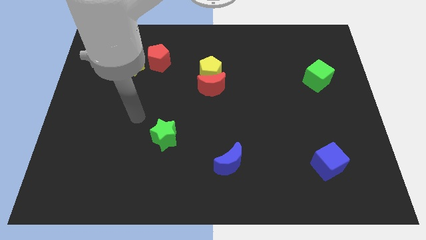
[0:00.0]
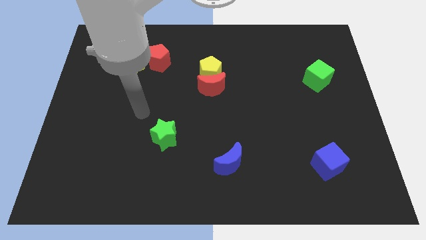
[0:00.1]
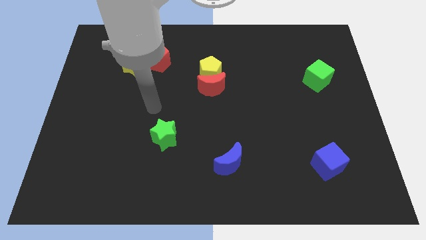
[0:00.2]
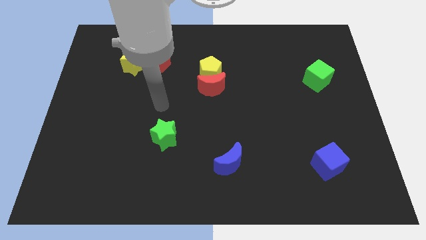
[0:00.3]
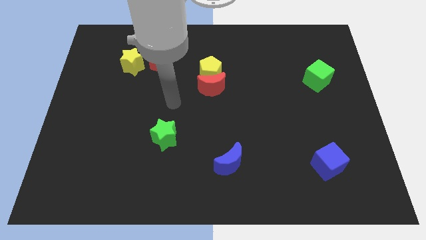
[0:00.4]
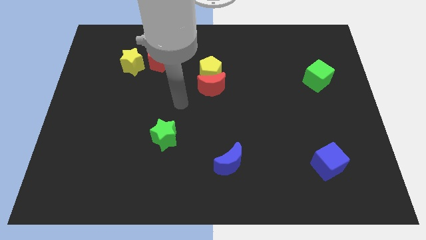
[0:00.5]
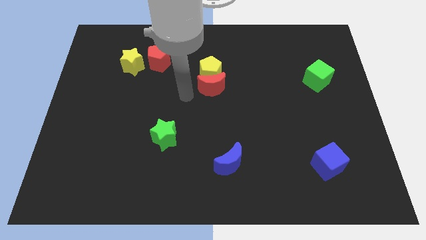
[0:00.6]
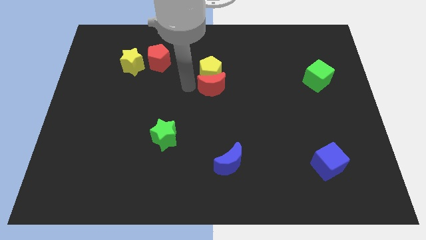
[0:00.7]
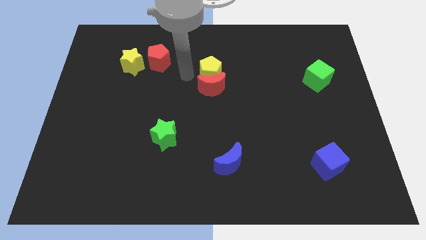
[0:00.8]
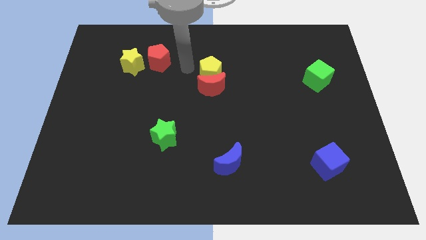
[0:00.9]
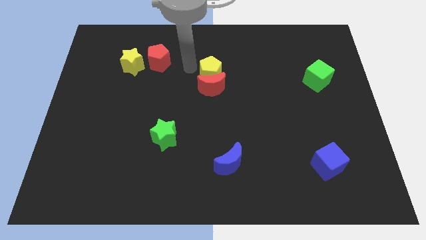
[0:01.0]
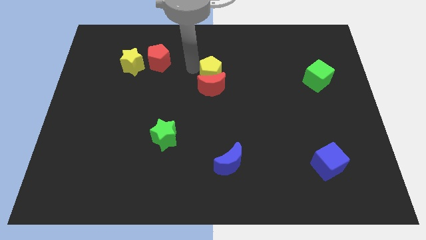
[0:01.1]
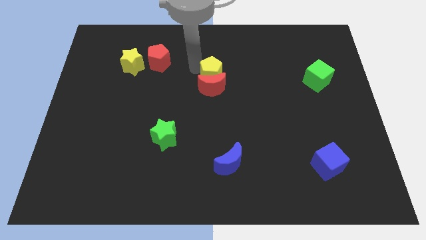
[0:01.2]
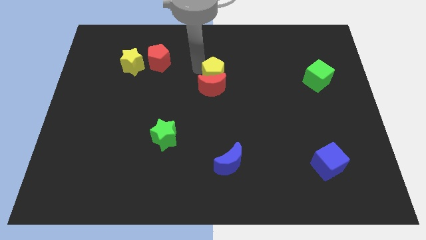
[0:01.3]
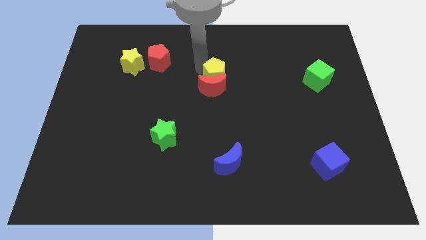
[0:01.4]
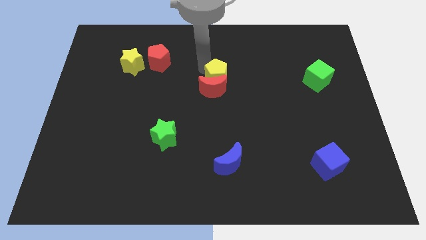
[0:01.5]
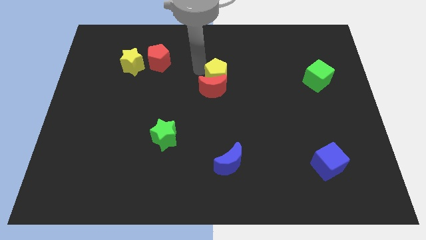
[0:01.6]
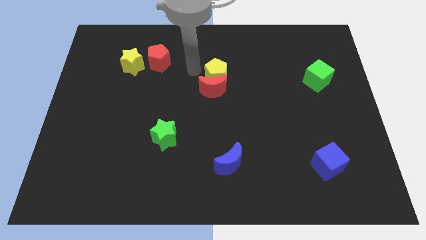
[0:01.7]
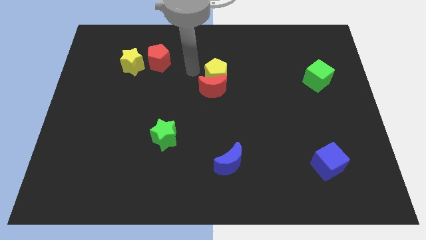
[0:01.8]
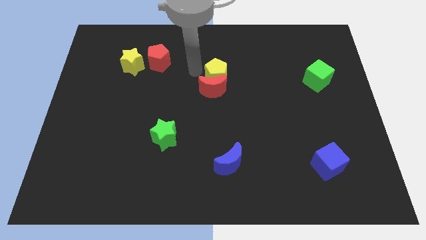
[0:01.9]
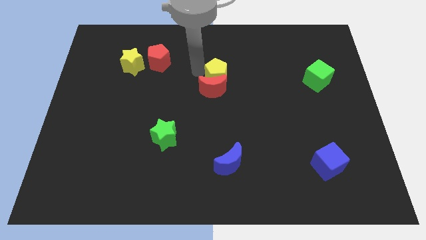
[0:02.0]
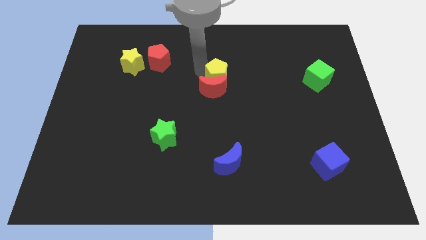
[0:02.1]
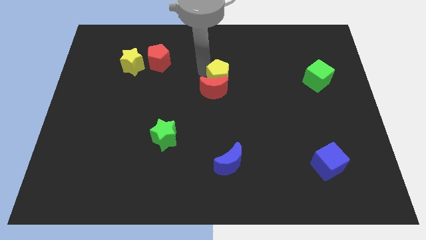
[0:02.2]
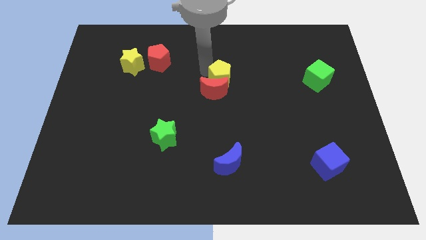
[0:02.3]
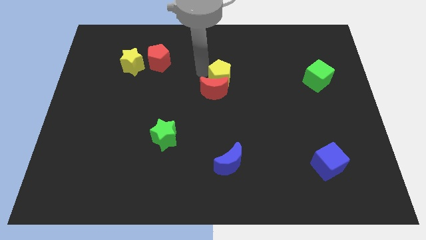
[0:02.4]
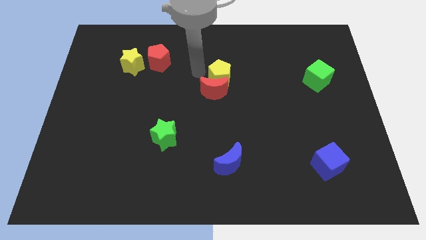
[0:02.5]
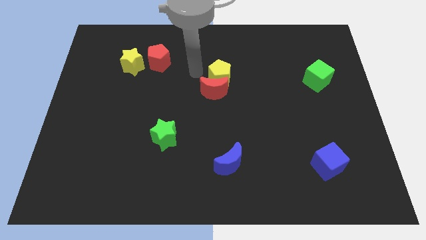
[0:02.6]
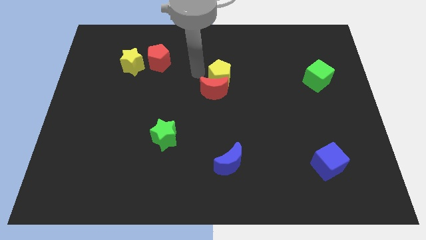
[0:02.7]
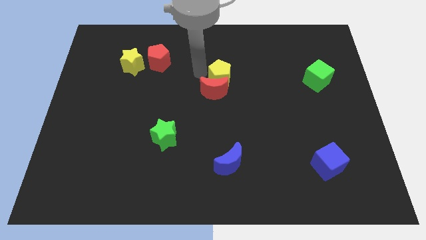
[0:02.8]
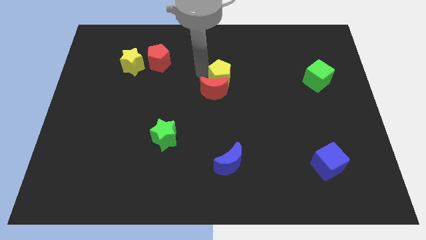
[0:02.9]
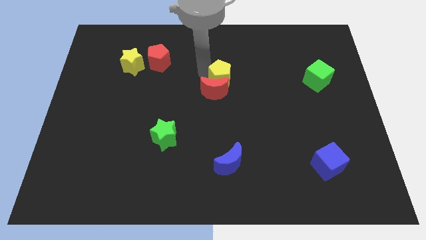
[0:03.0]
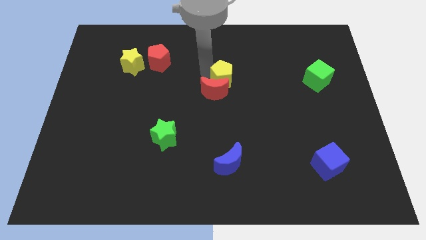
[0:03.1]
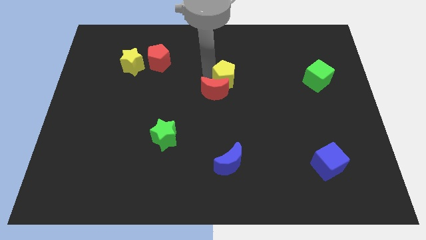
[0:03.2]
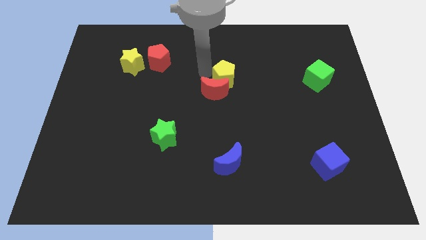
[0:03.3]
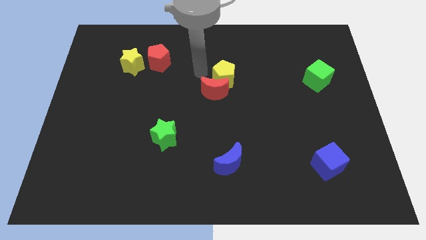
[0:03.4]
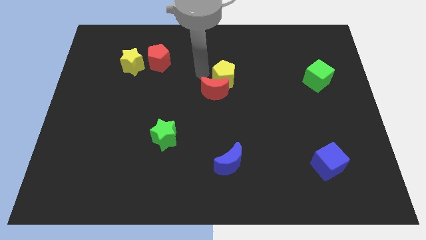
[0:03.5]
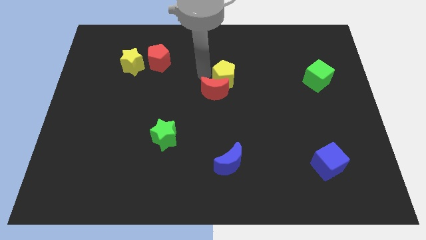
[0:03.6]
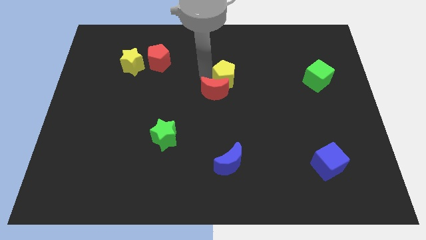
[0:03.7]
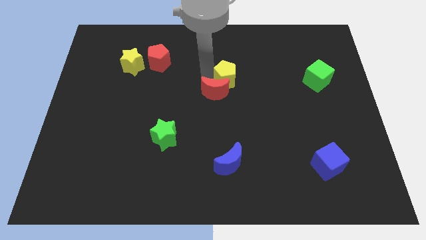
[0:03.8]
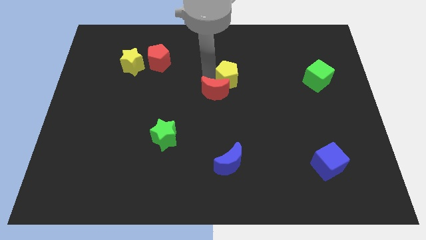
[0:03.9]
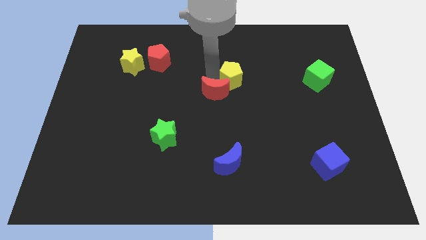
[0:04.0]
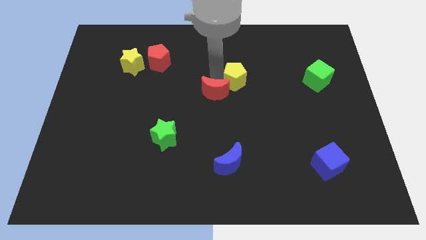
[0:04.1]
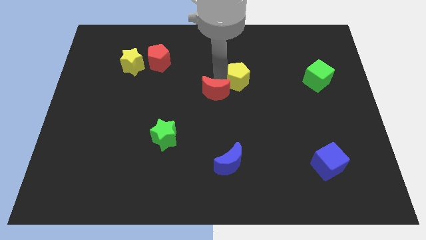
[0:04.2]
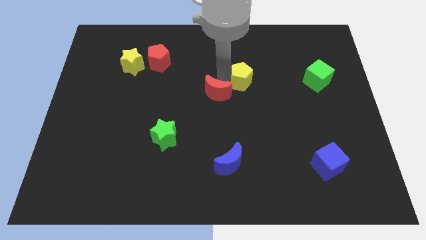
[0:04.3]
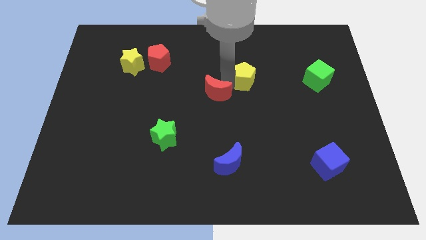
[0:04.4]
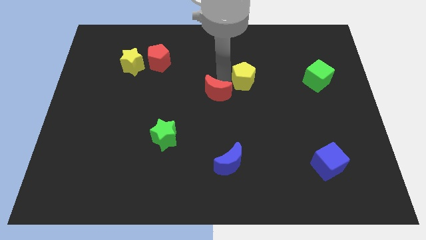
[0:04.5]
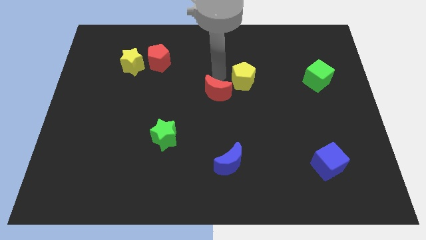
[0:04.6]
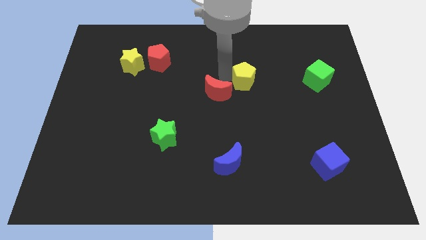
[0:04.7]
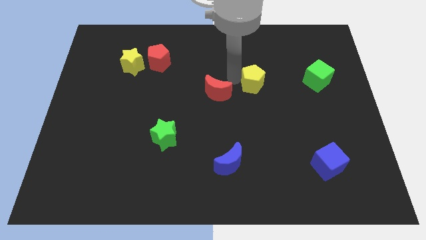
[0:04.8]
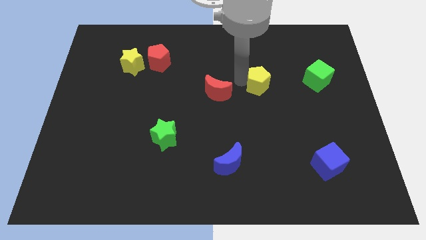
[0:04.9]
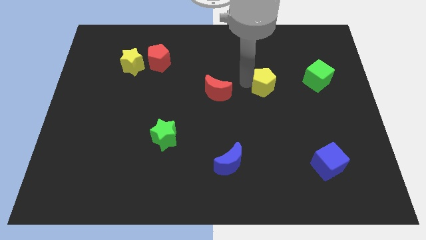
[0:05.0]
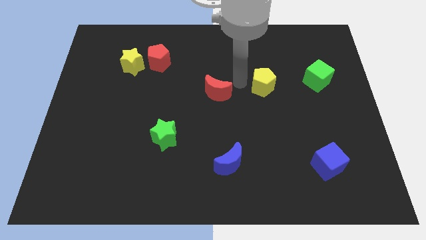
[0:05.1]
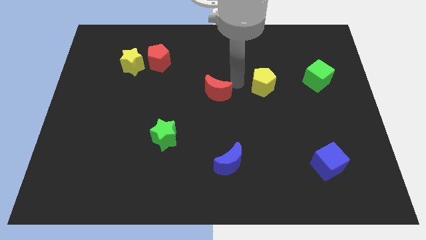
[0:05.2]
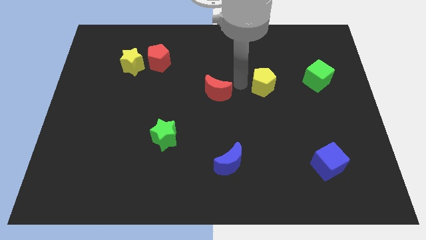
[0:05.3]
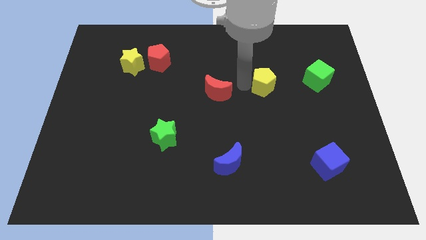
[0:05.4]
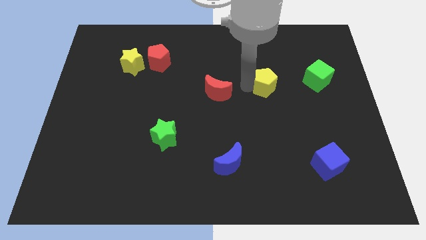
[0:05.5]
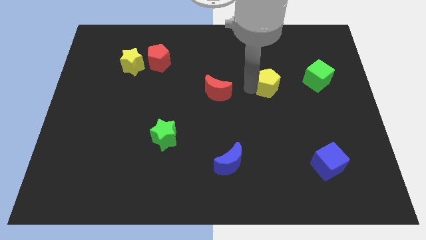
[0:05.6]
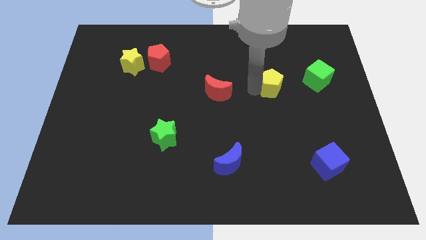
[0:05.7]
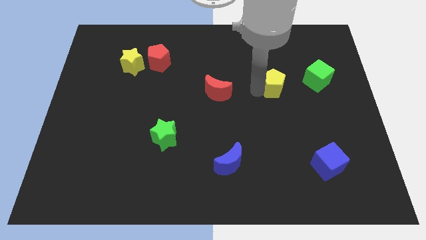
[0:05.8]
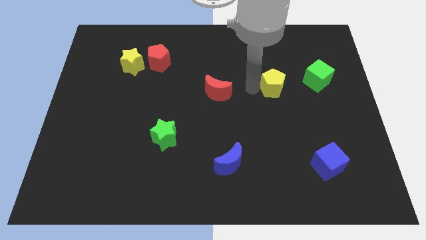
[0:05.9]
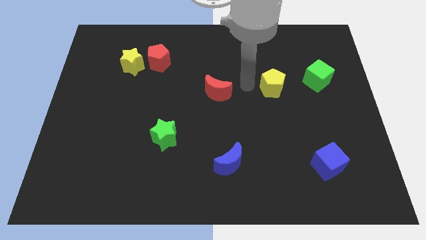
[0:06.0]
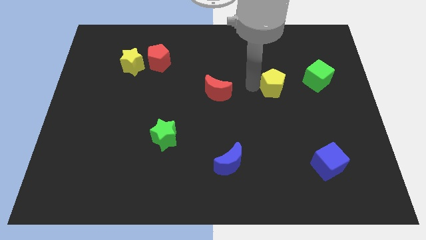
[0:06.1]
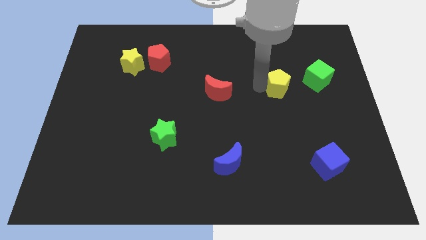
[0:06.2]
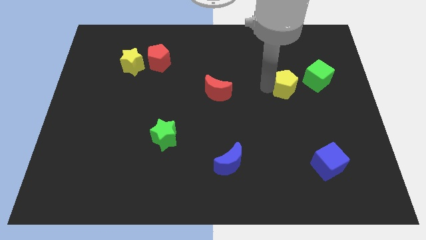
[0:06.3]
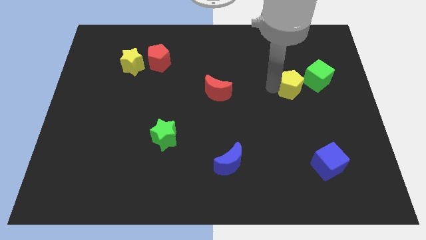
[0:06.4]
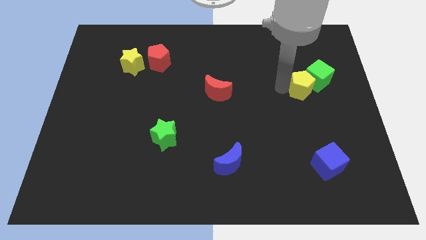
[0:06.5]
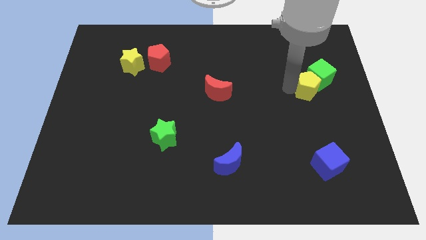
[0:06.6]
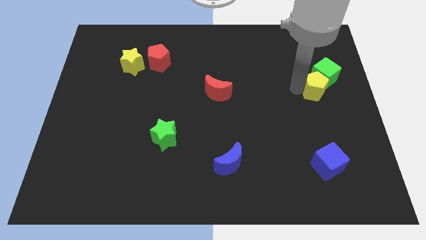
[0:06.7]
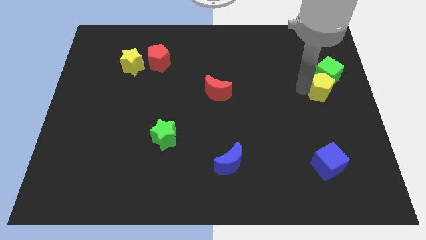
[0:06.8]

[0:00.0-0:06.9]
slide the yellow pentagon to the right side
